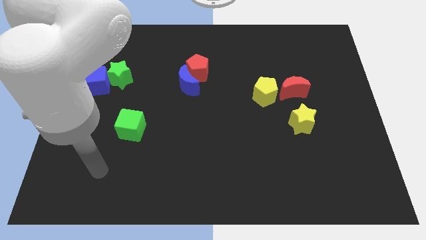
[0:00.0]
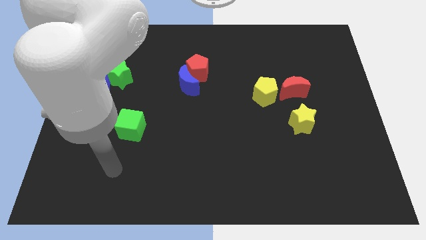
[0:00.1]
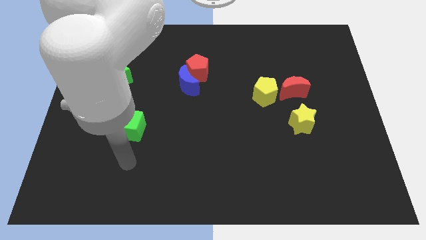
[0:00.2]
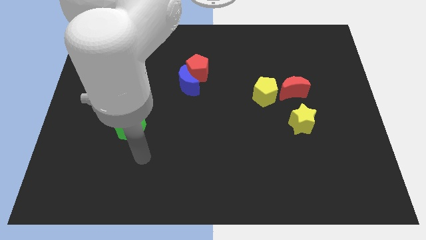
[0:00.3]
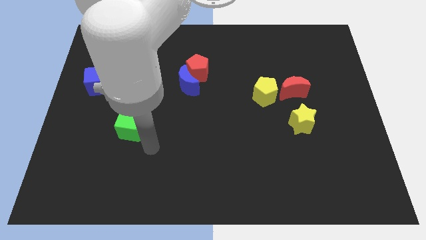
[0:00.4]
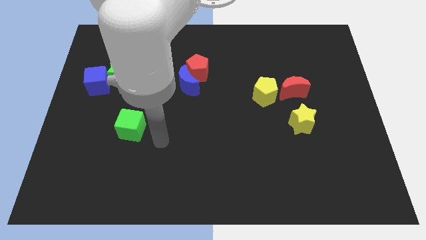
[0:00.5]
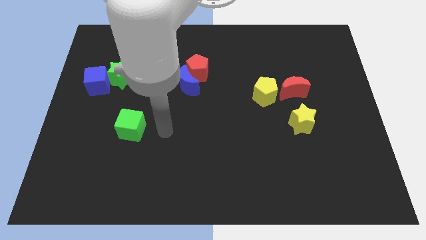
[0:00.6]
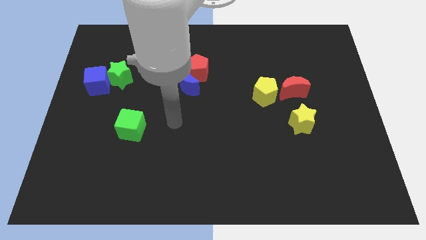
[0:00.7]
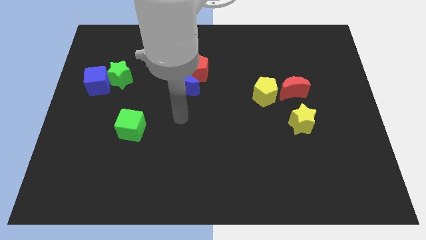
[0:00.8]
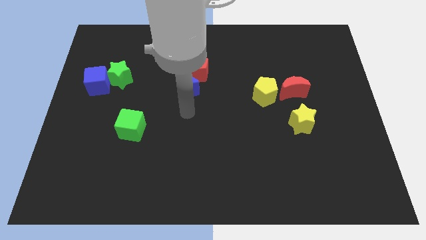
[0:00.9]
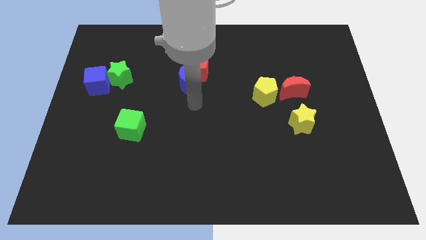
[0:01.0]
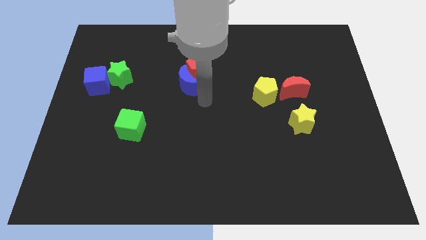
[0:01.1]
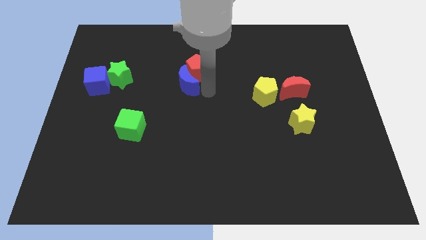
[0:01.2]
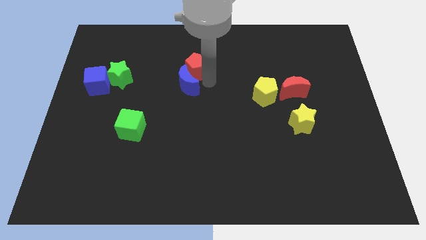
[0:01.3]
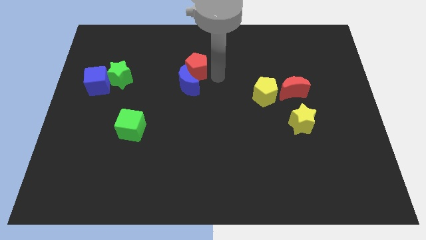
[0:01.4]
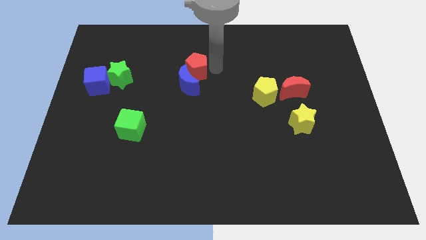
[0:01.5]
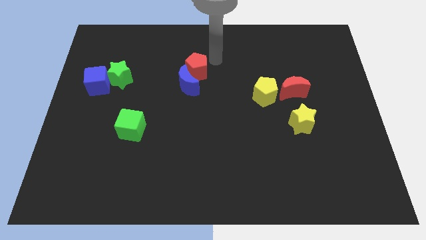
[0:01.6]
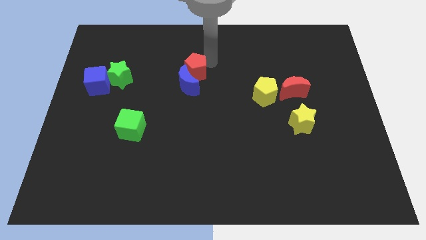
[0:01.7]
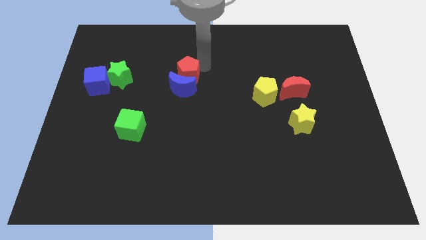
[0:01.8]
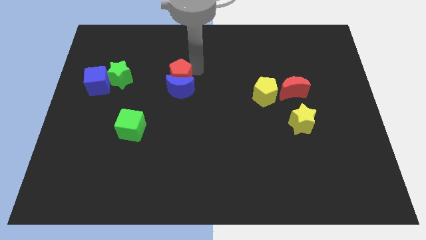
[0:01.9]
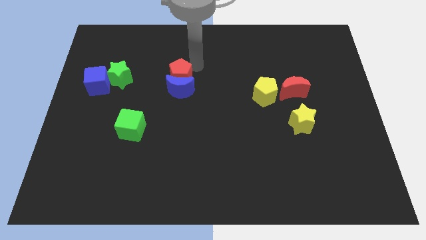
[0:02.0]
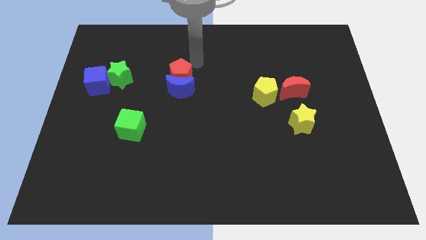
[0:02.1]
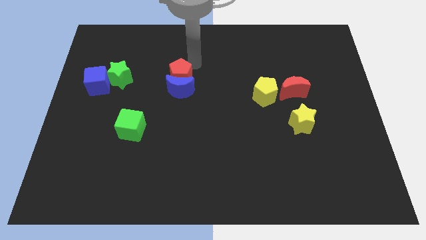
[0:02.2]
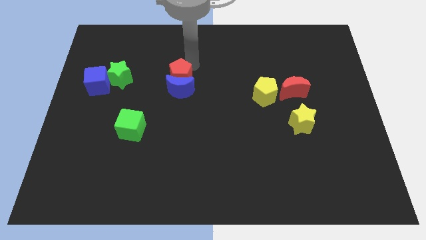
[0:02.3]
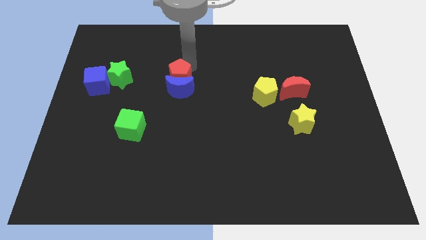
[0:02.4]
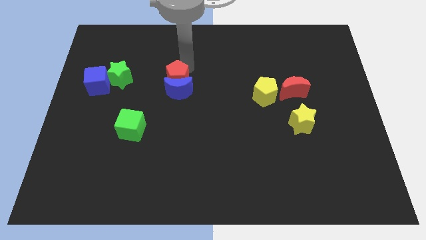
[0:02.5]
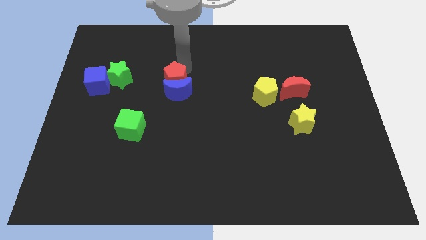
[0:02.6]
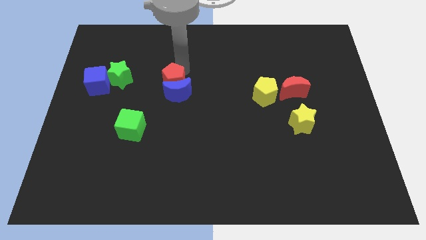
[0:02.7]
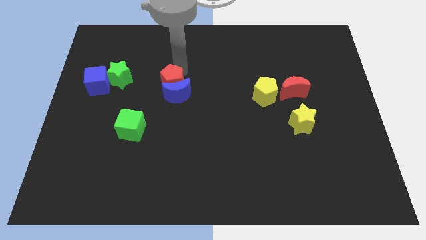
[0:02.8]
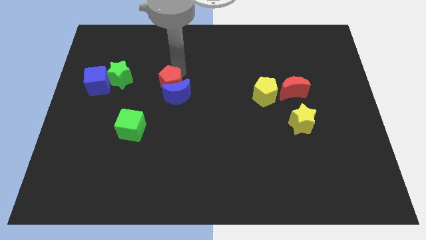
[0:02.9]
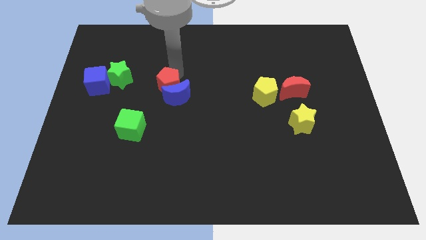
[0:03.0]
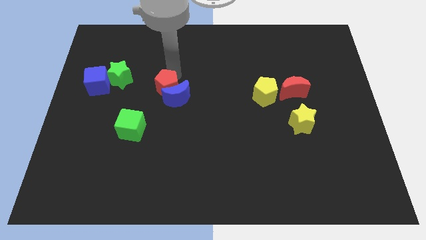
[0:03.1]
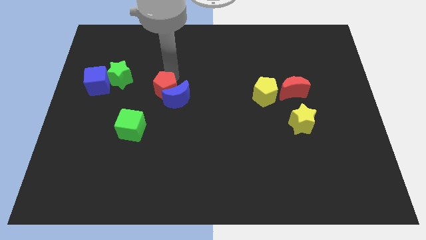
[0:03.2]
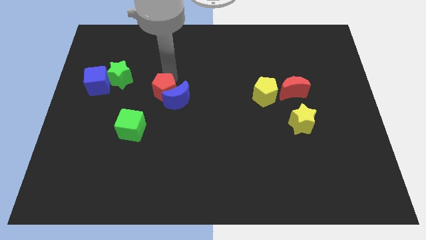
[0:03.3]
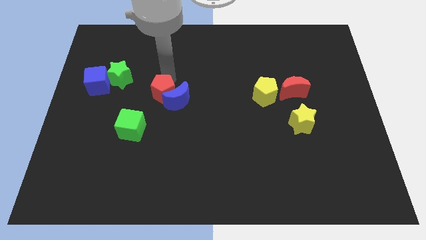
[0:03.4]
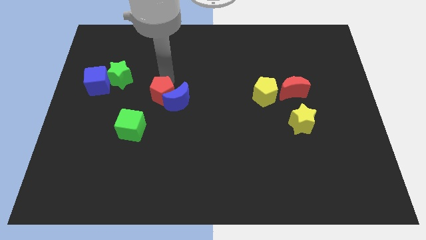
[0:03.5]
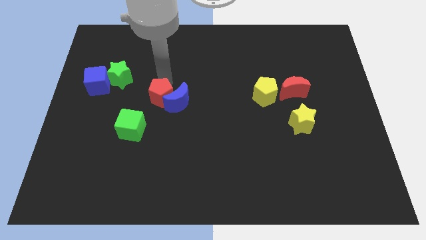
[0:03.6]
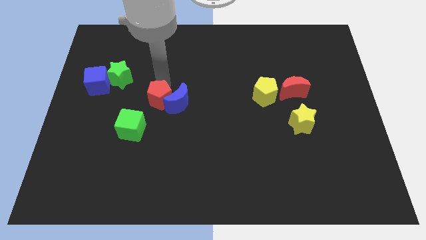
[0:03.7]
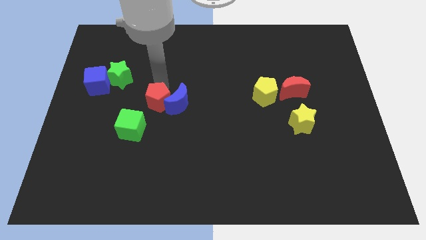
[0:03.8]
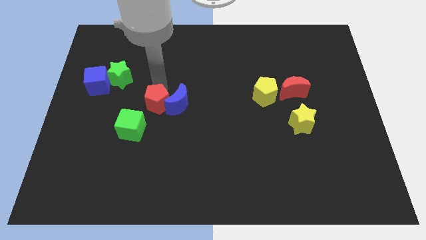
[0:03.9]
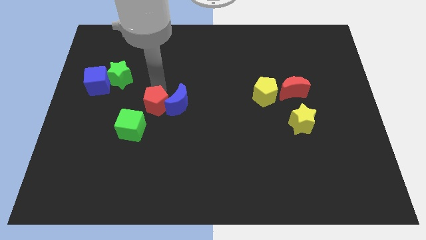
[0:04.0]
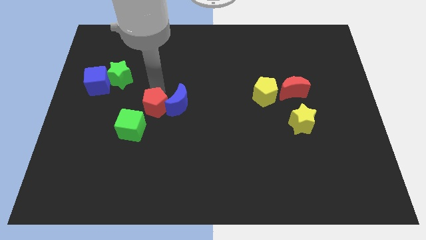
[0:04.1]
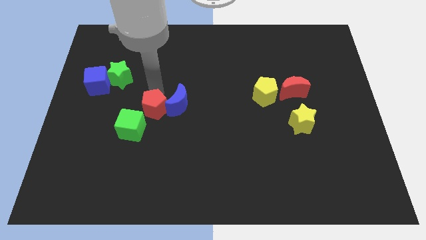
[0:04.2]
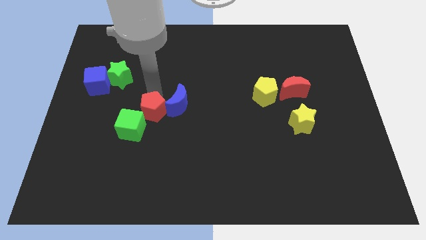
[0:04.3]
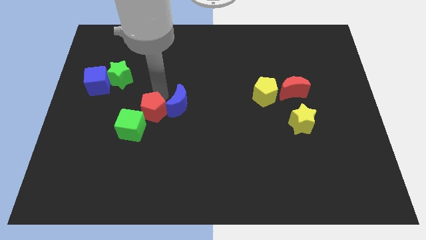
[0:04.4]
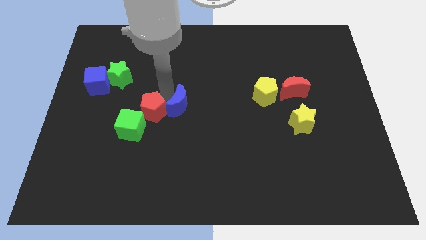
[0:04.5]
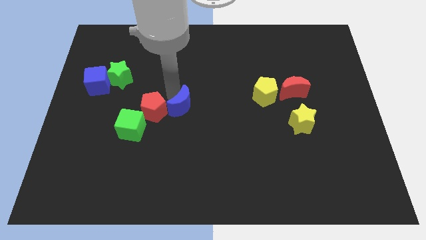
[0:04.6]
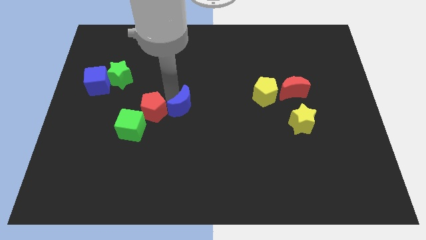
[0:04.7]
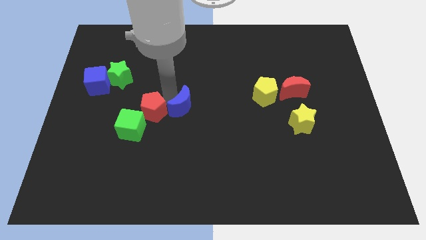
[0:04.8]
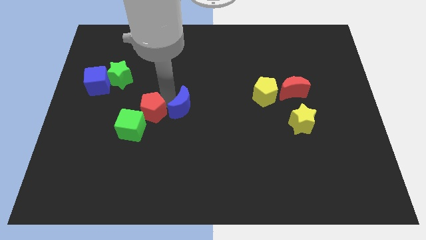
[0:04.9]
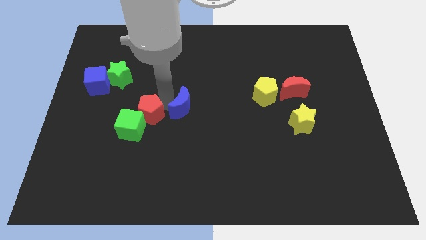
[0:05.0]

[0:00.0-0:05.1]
slide the red pentagon towards the green cube

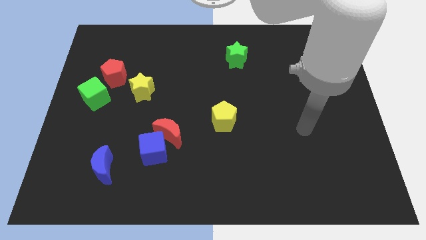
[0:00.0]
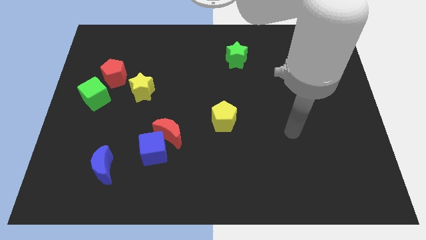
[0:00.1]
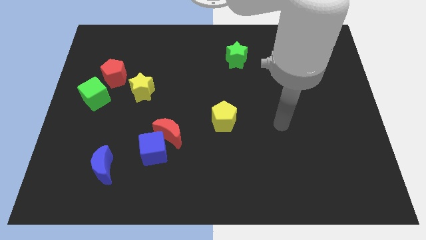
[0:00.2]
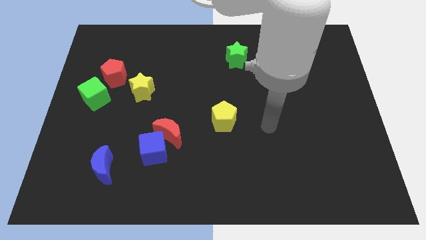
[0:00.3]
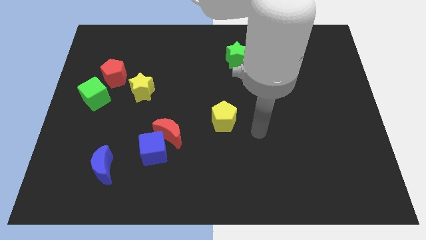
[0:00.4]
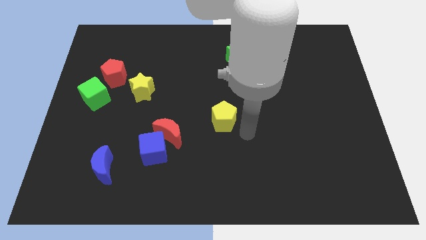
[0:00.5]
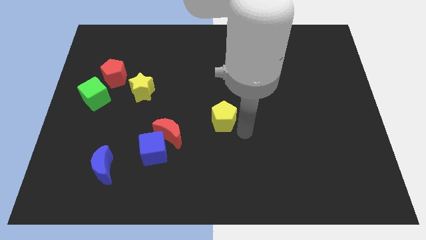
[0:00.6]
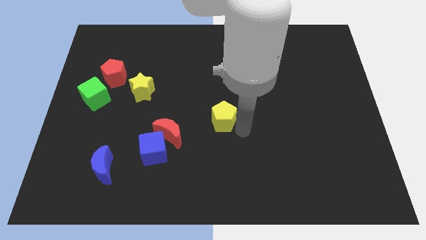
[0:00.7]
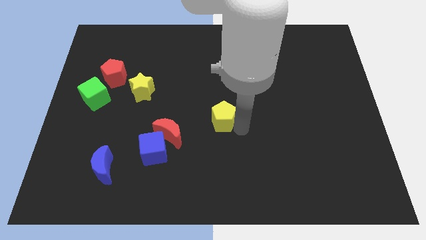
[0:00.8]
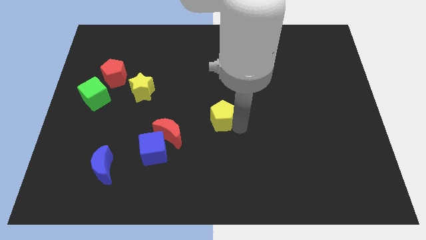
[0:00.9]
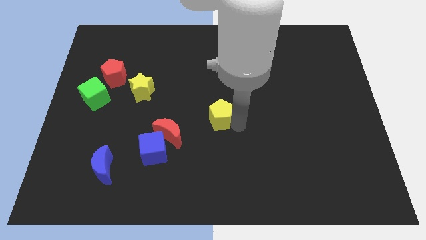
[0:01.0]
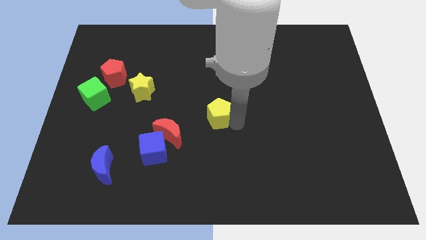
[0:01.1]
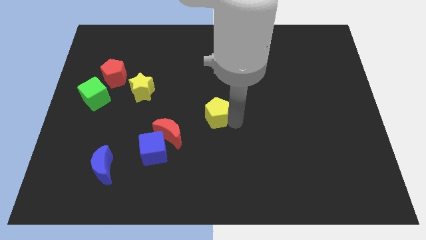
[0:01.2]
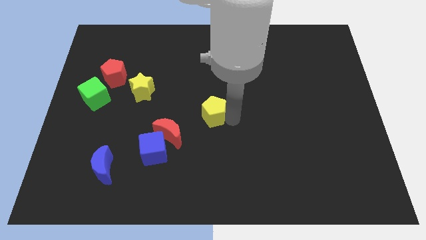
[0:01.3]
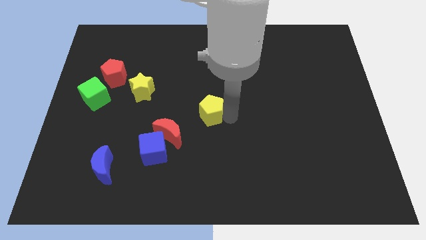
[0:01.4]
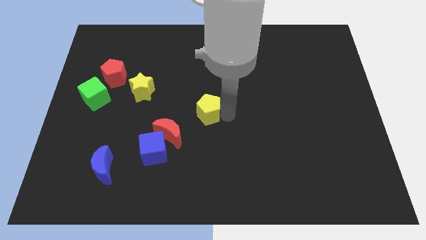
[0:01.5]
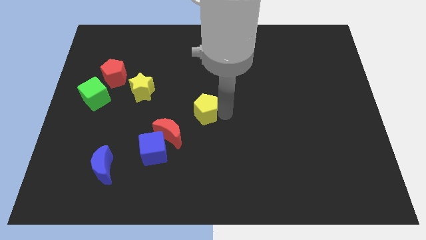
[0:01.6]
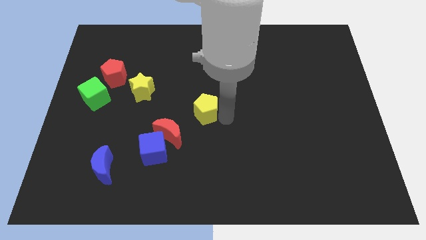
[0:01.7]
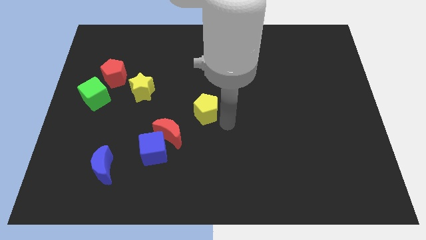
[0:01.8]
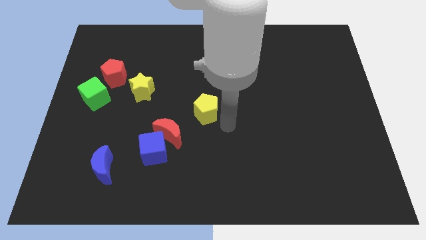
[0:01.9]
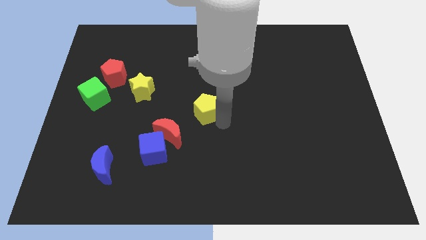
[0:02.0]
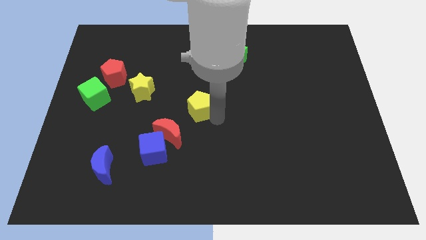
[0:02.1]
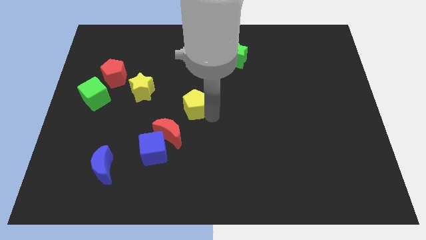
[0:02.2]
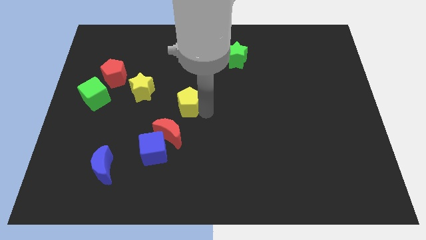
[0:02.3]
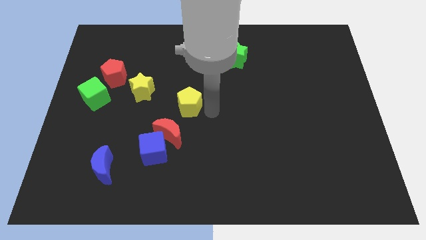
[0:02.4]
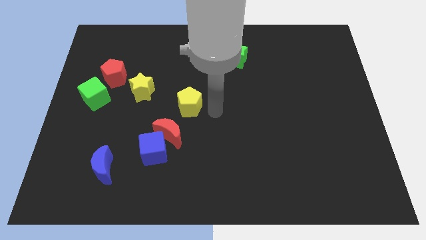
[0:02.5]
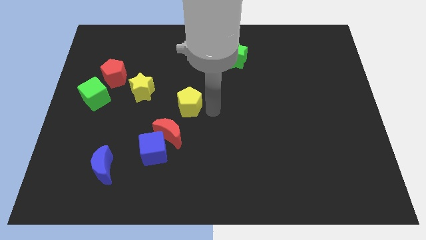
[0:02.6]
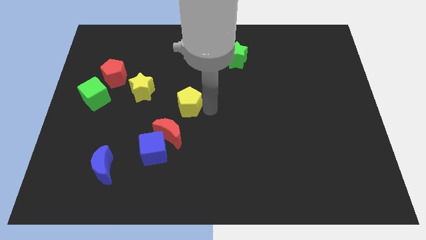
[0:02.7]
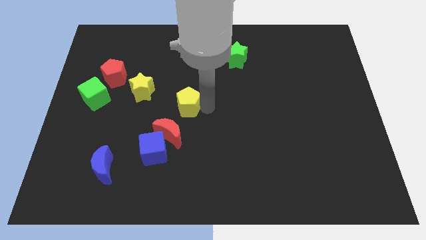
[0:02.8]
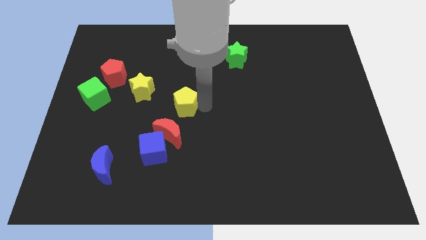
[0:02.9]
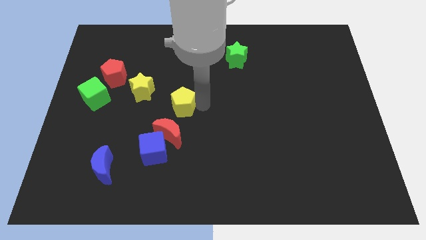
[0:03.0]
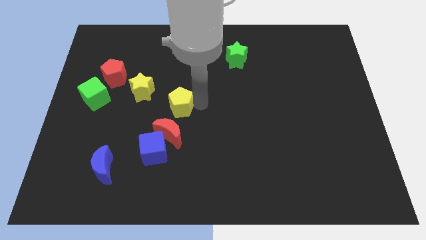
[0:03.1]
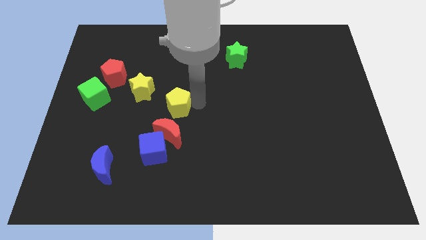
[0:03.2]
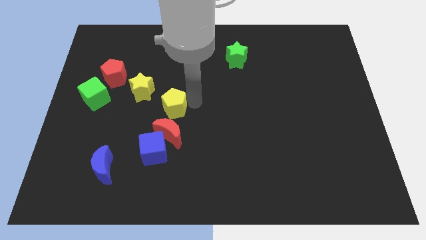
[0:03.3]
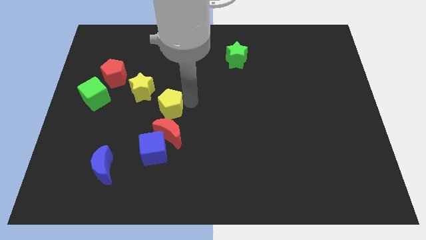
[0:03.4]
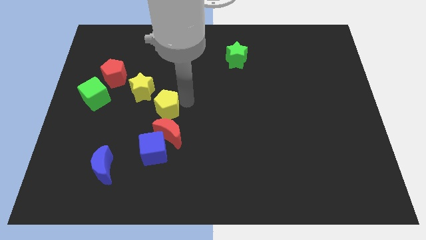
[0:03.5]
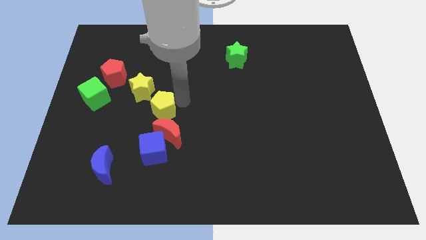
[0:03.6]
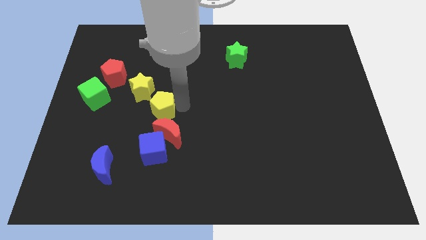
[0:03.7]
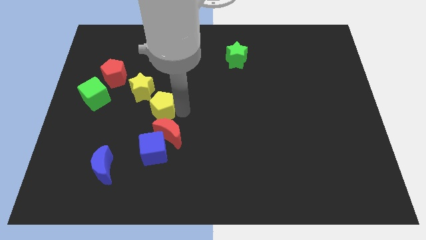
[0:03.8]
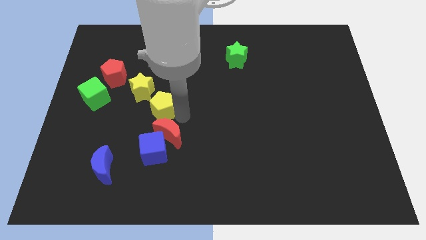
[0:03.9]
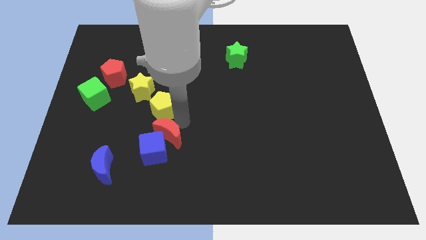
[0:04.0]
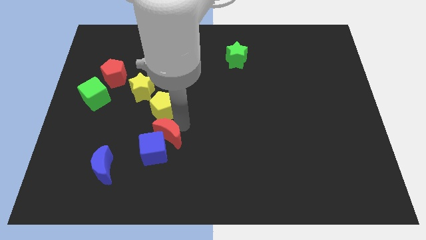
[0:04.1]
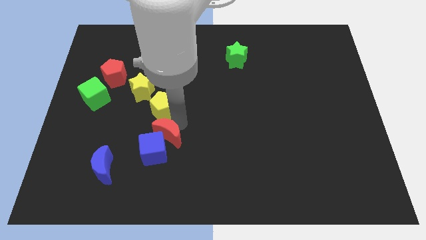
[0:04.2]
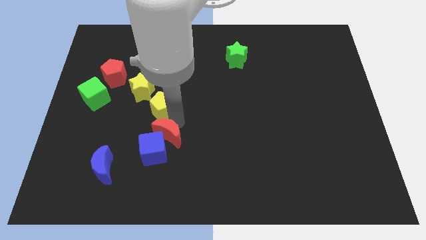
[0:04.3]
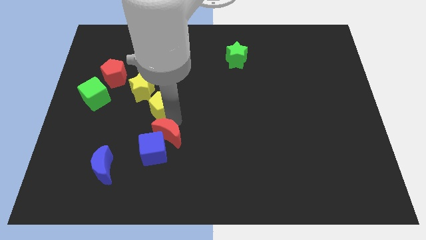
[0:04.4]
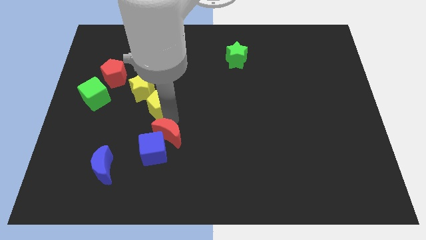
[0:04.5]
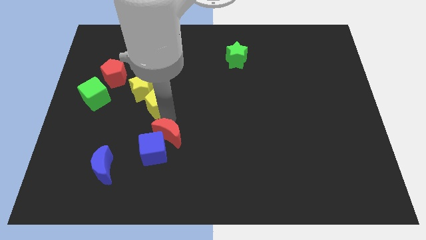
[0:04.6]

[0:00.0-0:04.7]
put the yellow pentagon towards the yellow star
